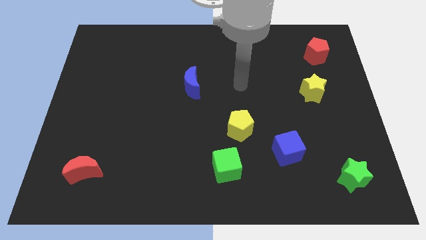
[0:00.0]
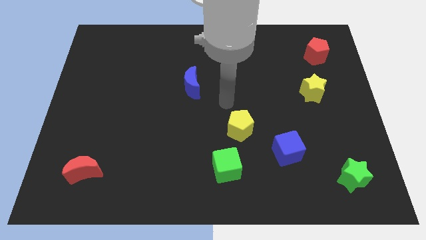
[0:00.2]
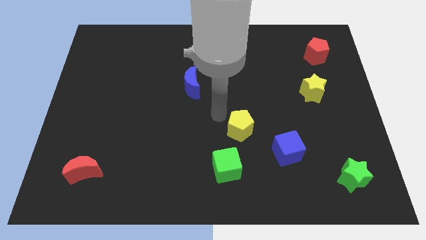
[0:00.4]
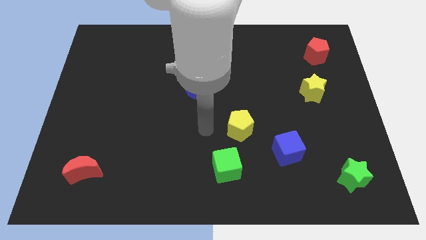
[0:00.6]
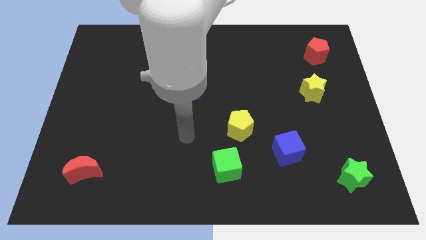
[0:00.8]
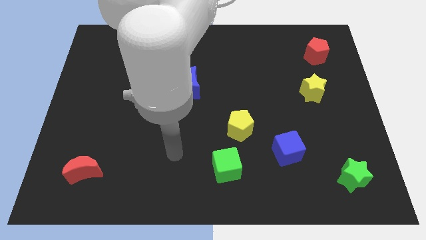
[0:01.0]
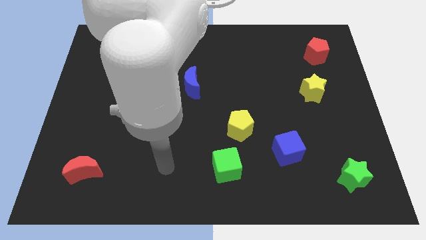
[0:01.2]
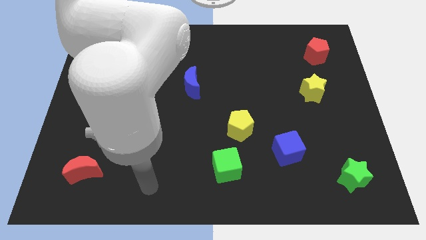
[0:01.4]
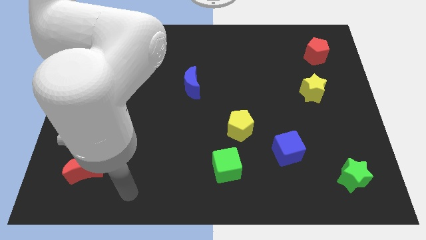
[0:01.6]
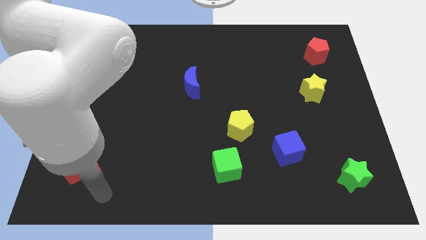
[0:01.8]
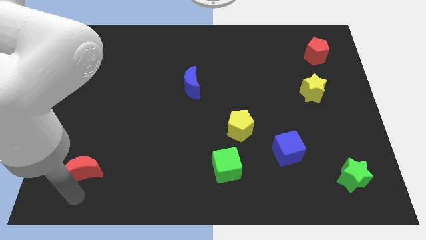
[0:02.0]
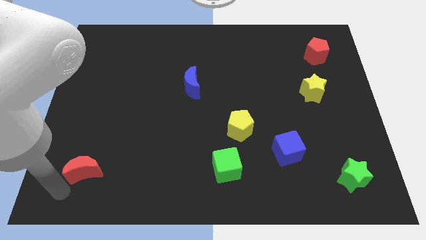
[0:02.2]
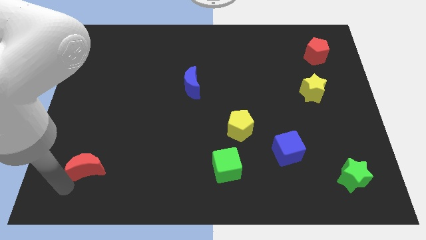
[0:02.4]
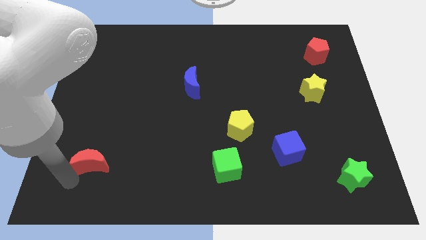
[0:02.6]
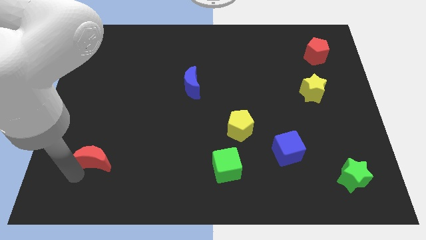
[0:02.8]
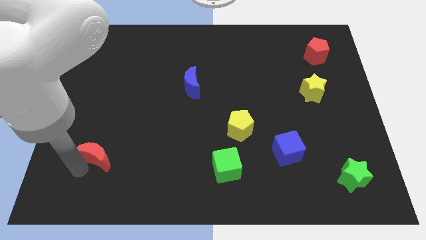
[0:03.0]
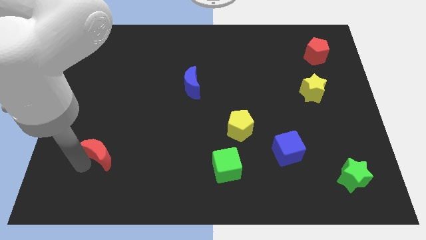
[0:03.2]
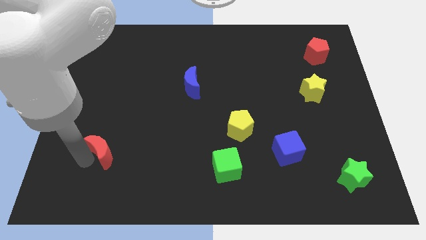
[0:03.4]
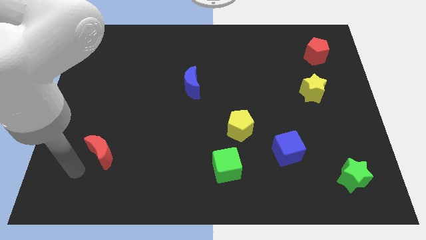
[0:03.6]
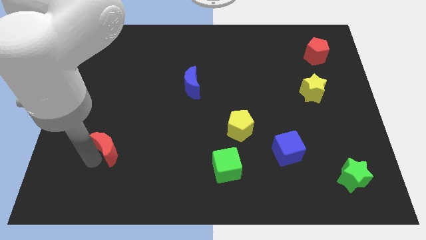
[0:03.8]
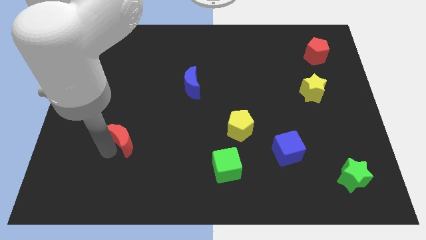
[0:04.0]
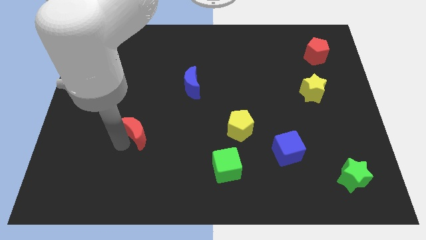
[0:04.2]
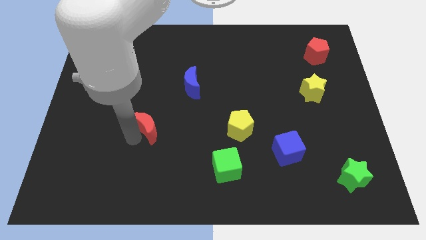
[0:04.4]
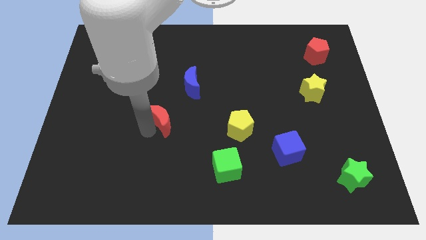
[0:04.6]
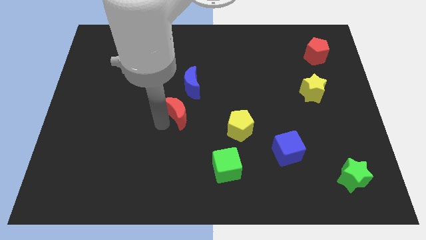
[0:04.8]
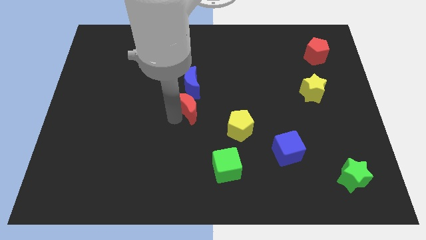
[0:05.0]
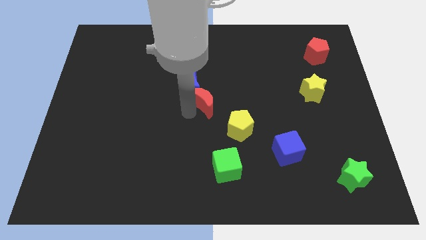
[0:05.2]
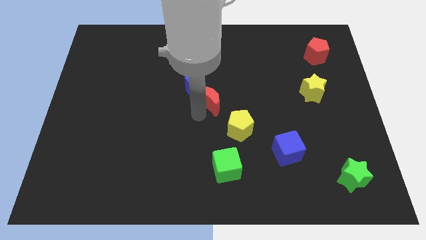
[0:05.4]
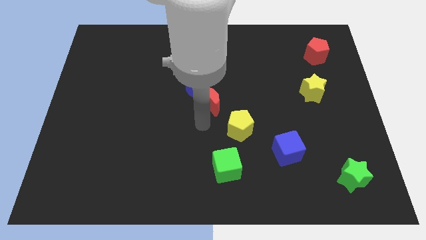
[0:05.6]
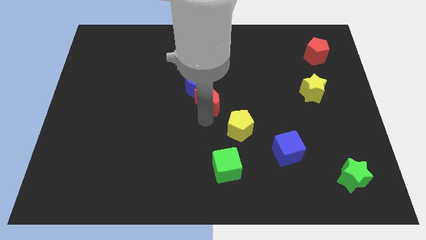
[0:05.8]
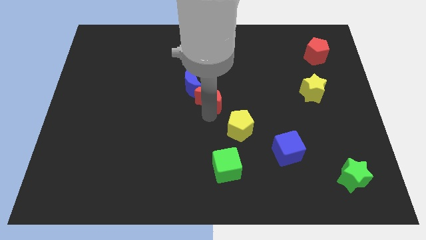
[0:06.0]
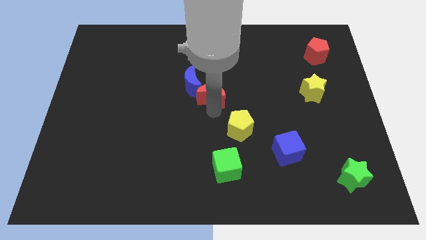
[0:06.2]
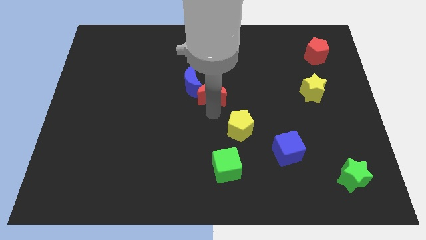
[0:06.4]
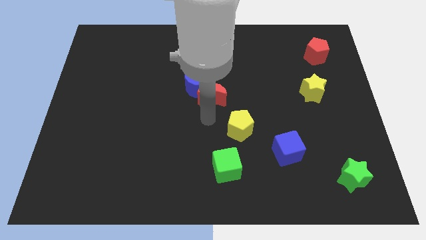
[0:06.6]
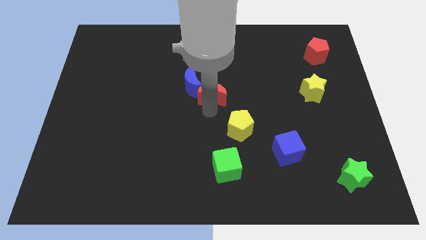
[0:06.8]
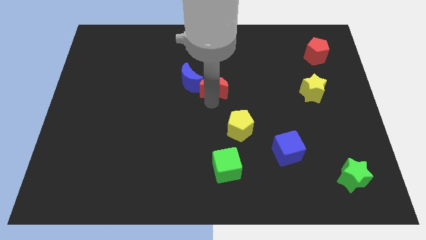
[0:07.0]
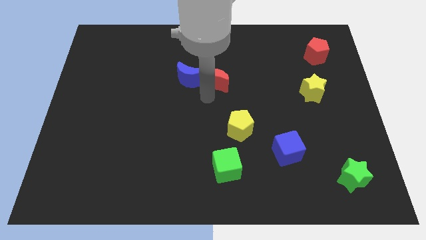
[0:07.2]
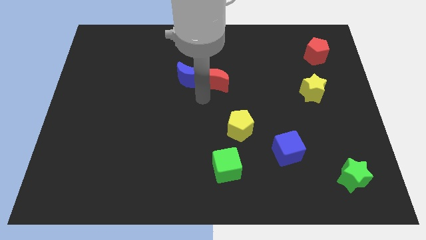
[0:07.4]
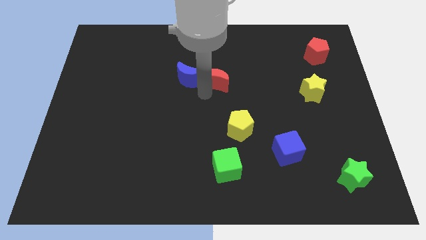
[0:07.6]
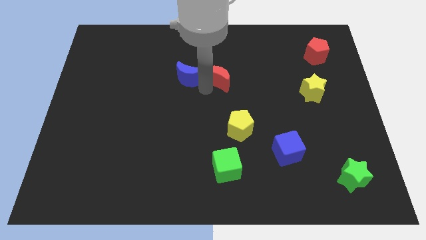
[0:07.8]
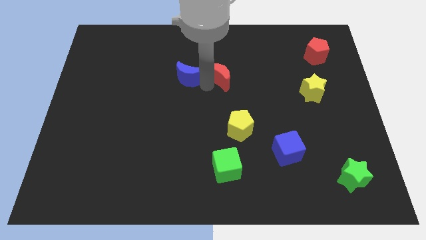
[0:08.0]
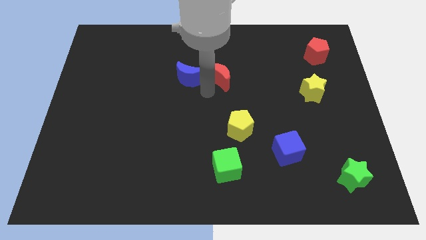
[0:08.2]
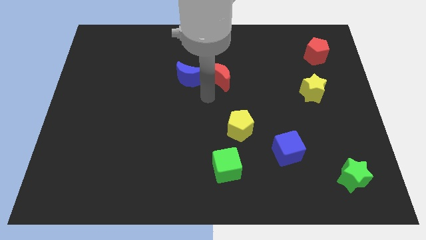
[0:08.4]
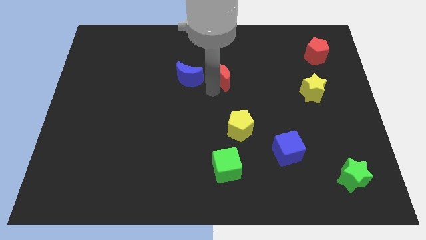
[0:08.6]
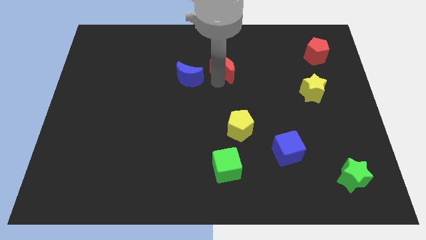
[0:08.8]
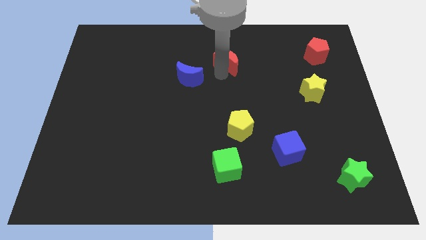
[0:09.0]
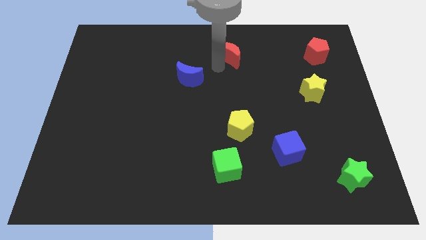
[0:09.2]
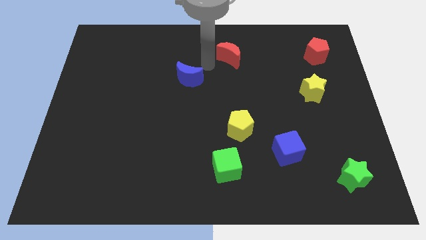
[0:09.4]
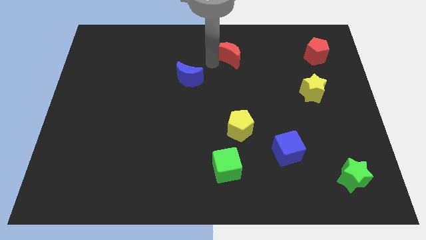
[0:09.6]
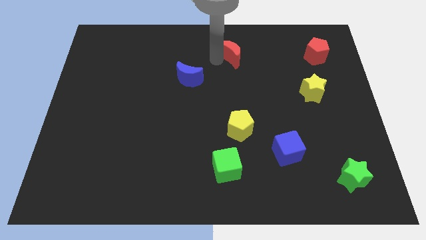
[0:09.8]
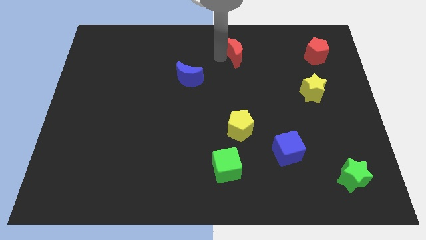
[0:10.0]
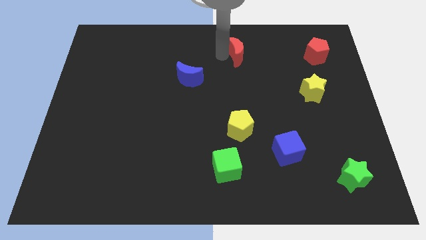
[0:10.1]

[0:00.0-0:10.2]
push the red moon to the top

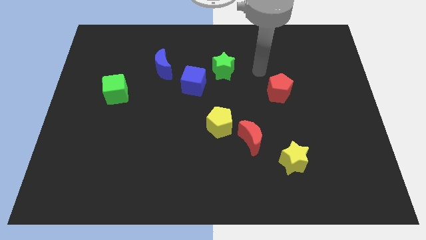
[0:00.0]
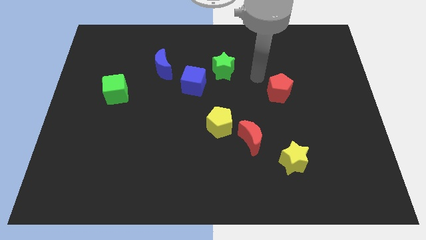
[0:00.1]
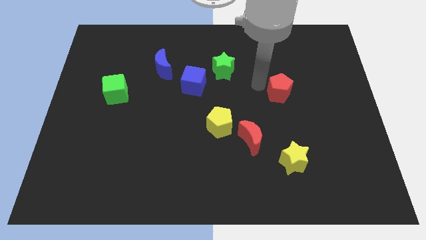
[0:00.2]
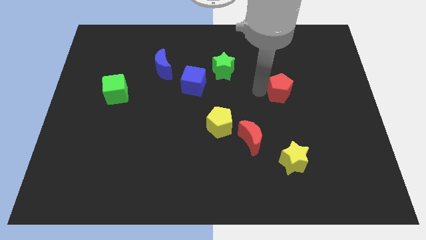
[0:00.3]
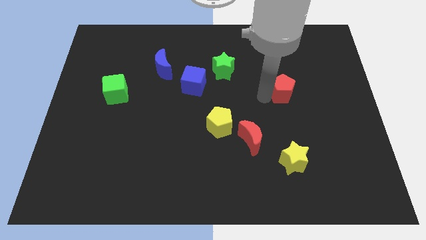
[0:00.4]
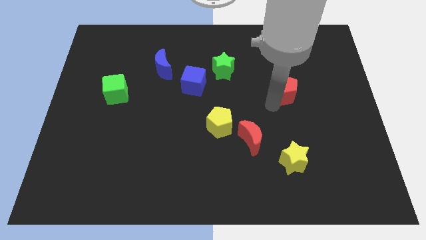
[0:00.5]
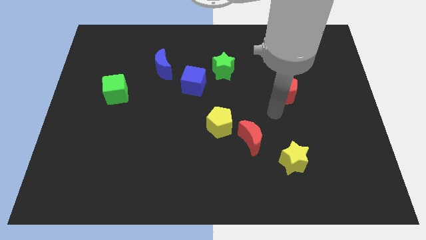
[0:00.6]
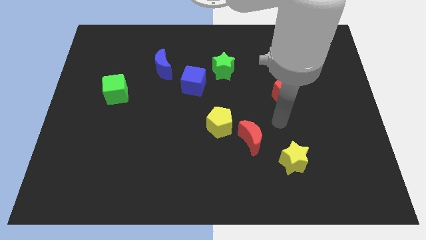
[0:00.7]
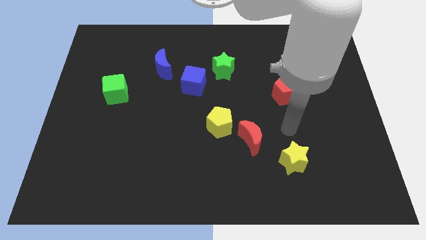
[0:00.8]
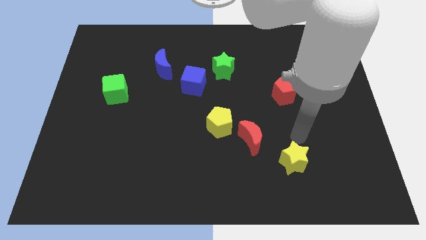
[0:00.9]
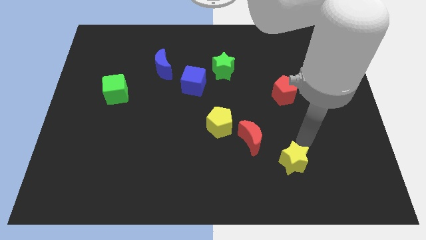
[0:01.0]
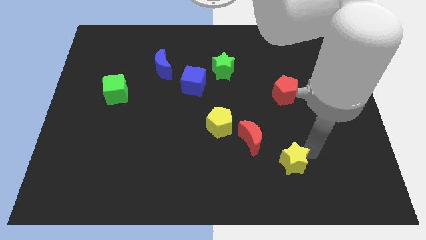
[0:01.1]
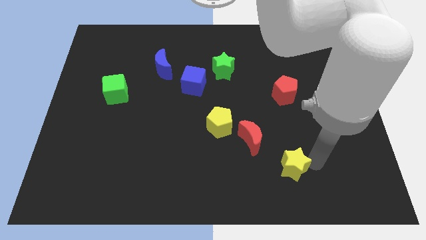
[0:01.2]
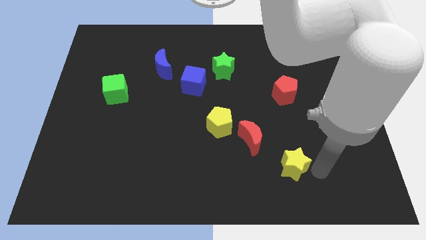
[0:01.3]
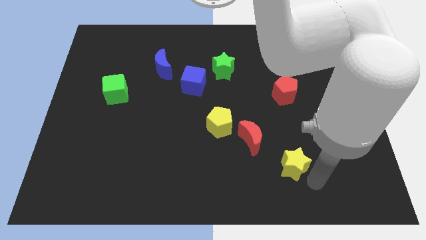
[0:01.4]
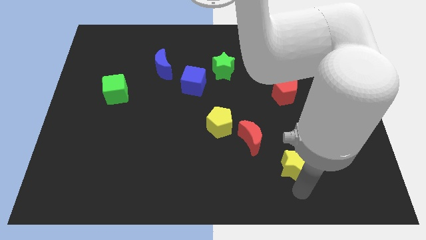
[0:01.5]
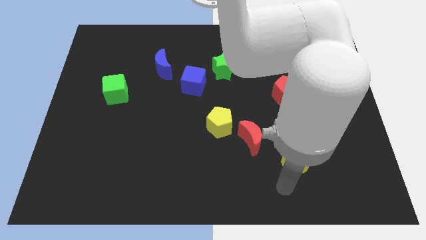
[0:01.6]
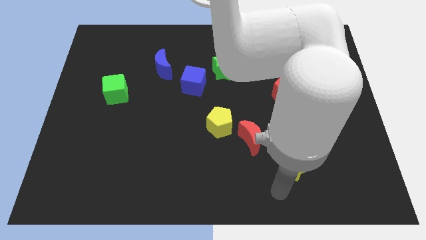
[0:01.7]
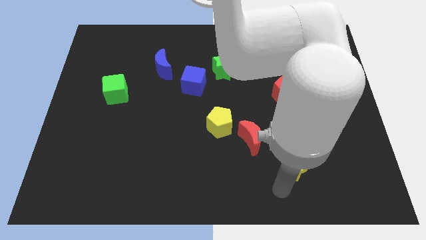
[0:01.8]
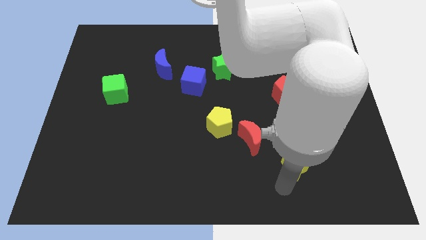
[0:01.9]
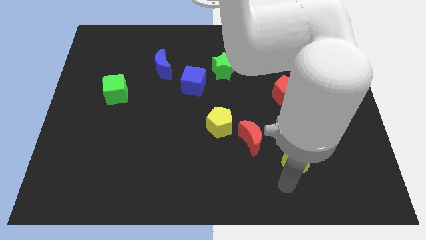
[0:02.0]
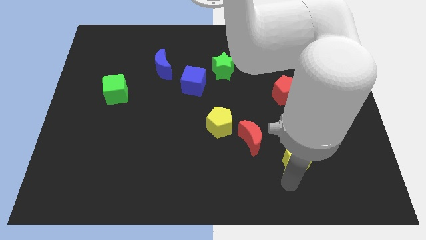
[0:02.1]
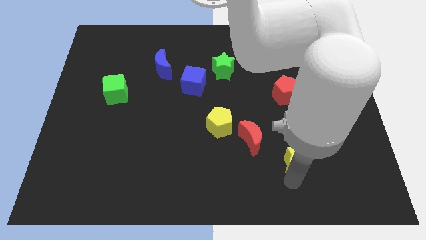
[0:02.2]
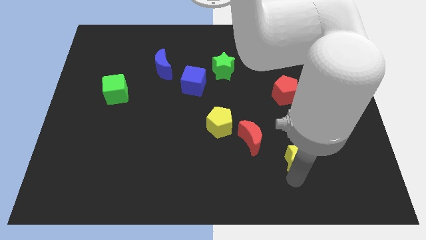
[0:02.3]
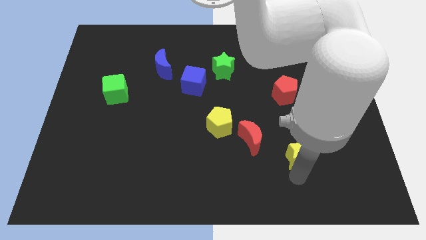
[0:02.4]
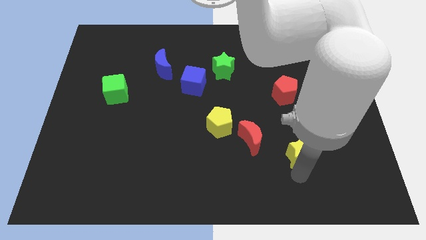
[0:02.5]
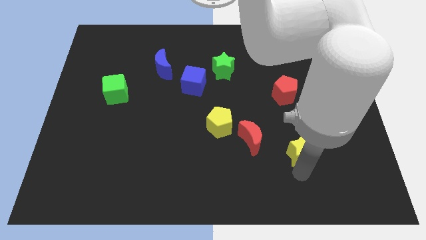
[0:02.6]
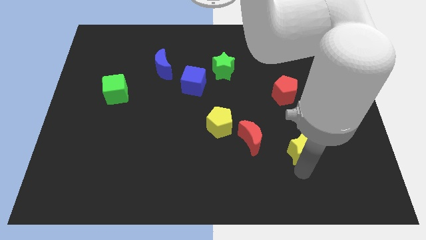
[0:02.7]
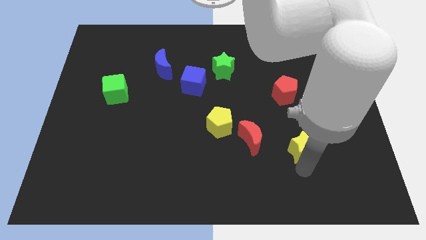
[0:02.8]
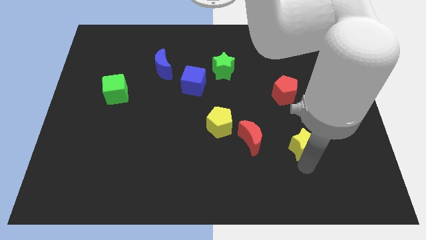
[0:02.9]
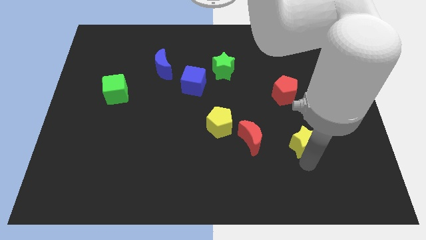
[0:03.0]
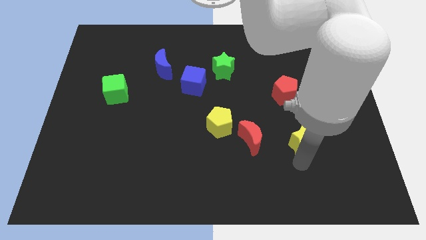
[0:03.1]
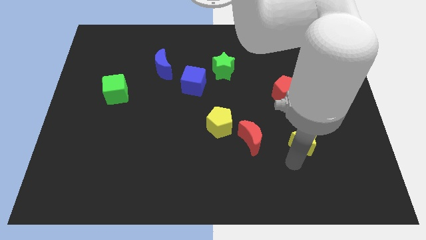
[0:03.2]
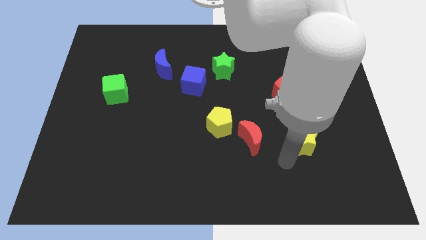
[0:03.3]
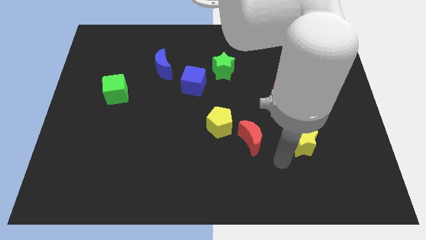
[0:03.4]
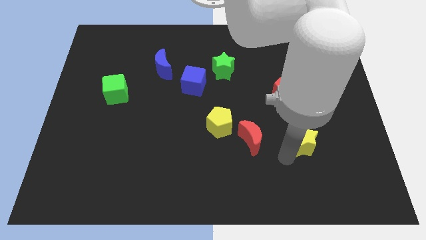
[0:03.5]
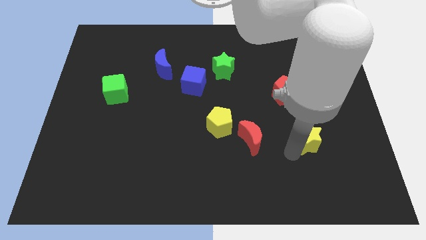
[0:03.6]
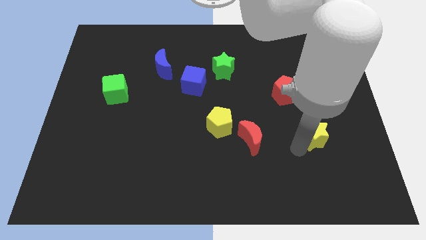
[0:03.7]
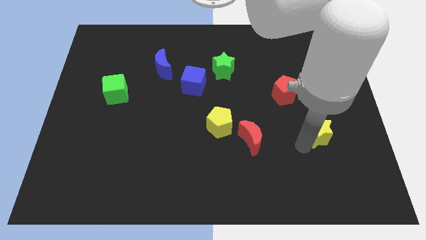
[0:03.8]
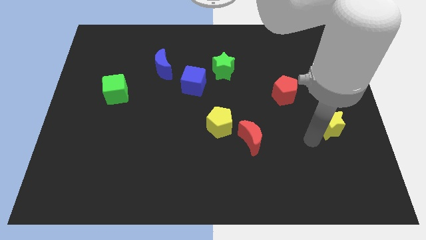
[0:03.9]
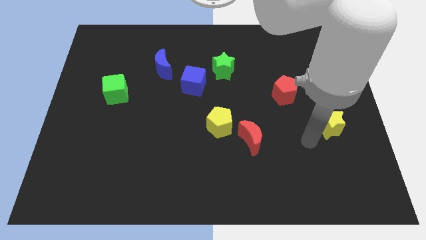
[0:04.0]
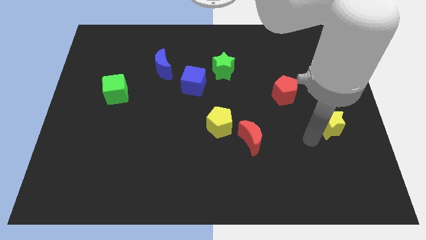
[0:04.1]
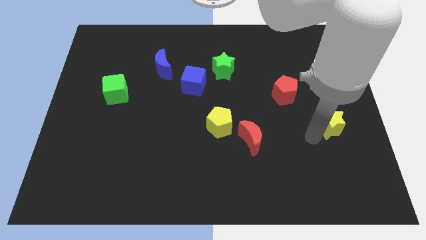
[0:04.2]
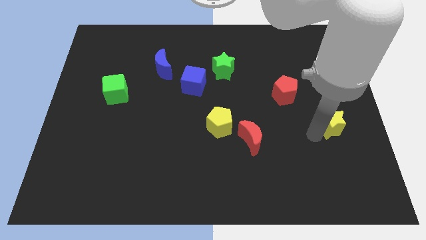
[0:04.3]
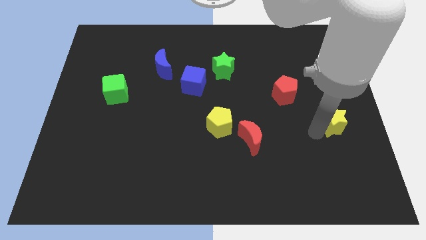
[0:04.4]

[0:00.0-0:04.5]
move the yellow star to the center right
